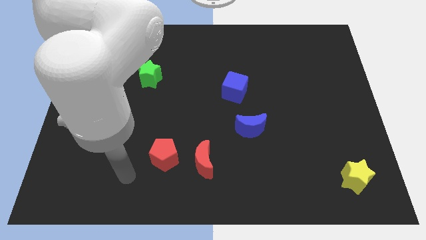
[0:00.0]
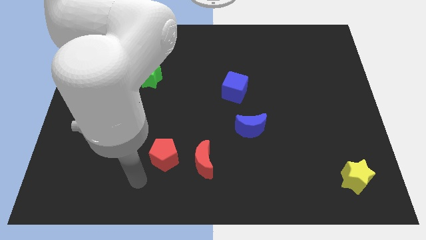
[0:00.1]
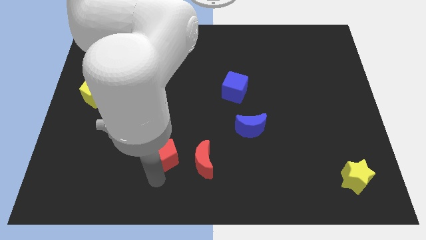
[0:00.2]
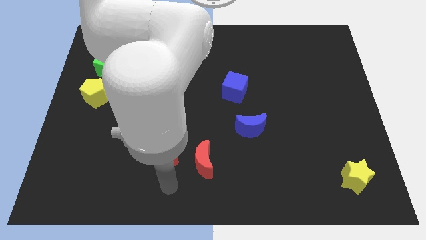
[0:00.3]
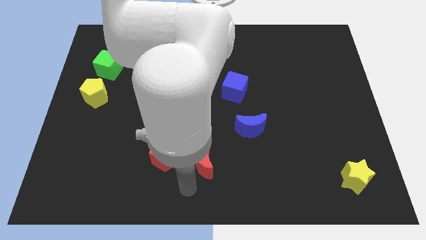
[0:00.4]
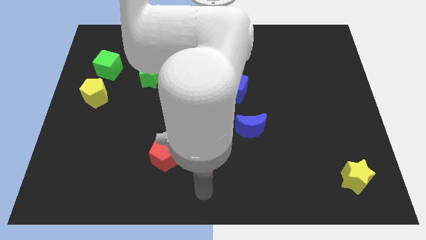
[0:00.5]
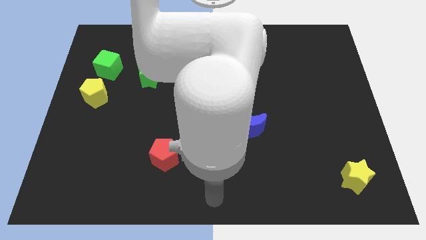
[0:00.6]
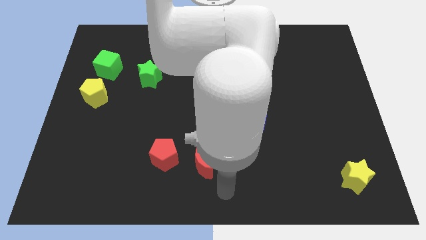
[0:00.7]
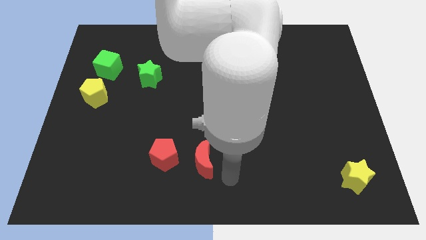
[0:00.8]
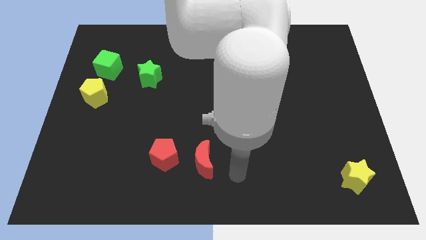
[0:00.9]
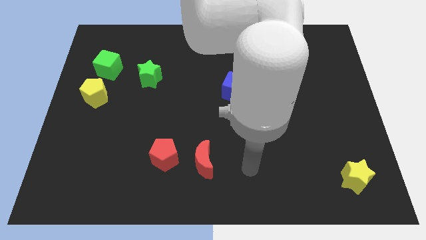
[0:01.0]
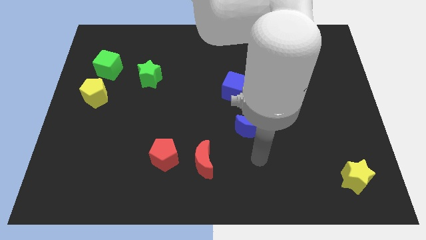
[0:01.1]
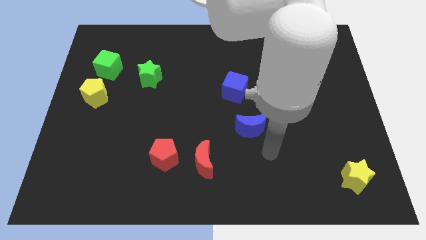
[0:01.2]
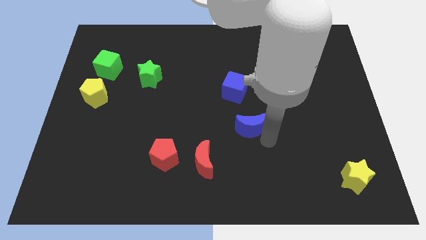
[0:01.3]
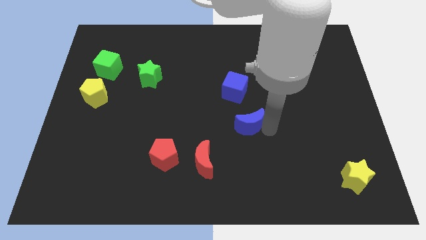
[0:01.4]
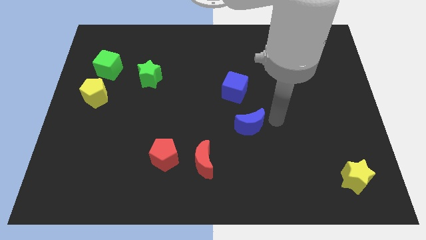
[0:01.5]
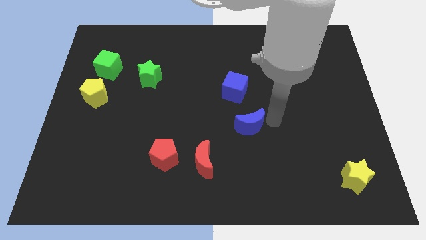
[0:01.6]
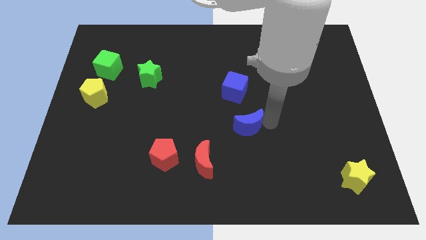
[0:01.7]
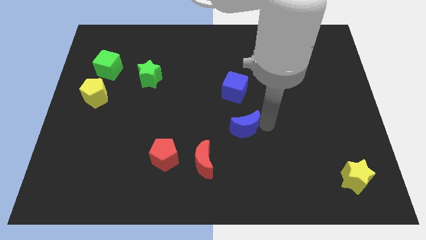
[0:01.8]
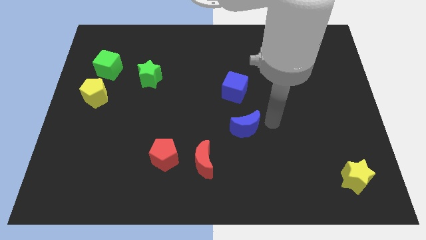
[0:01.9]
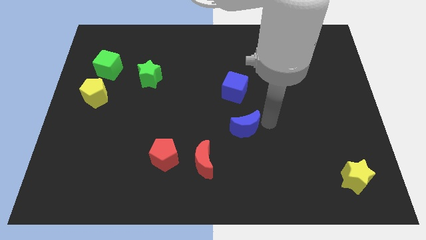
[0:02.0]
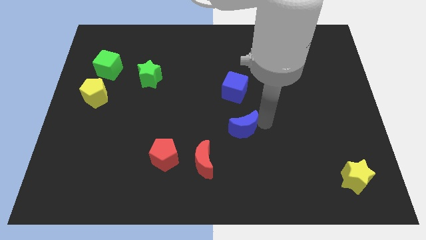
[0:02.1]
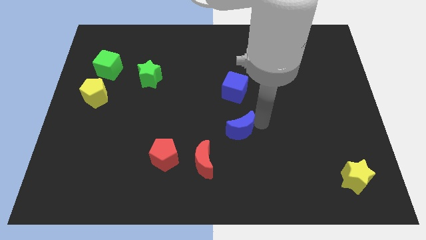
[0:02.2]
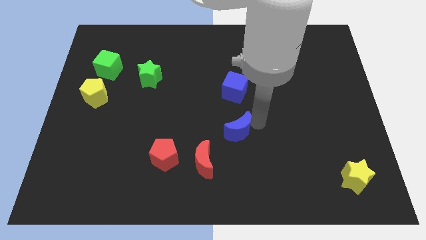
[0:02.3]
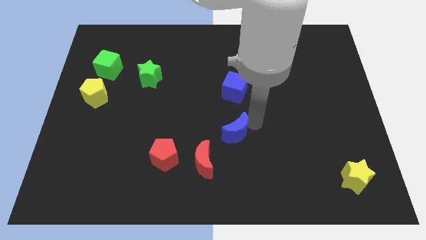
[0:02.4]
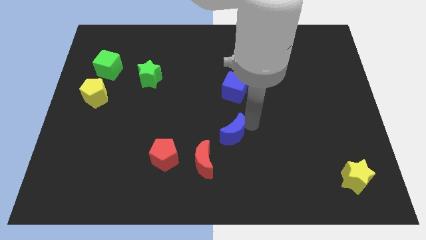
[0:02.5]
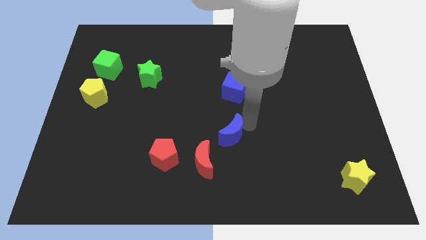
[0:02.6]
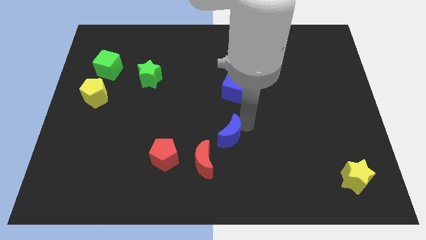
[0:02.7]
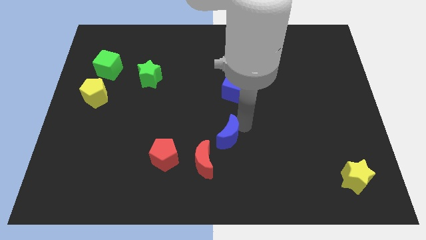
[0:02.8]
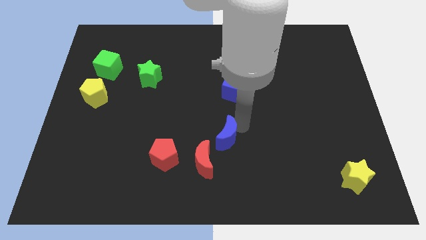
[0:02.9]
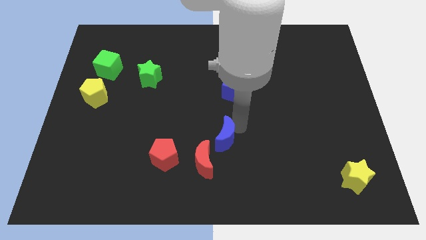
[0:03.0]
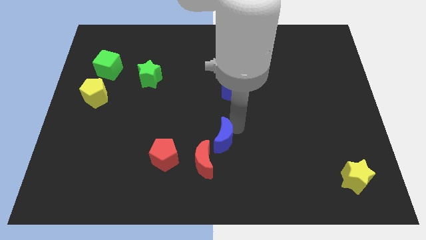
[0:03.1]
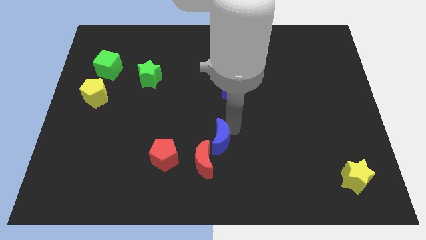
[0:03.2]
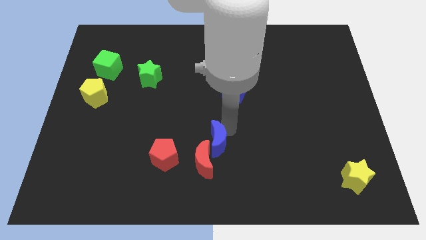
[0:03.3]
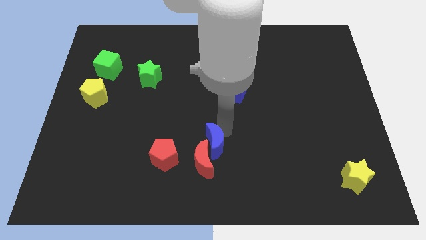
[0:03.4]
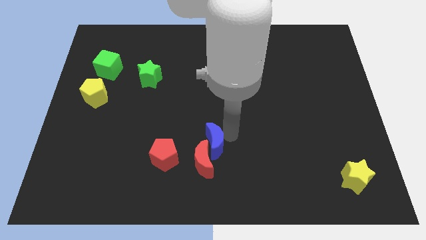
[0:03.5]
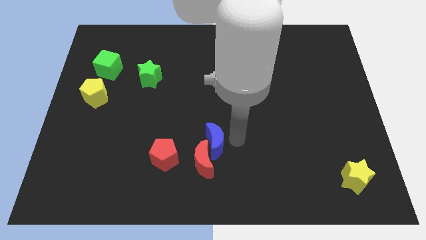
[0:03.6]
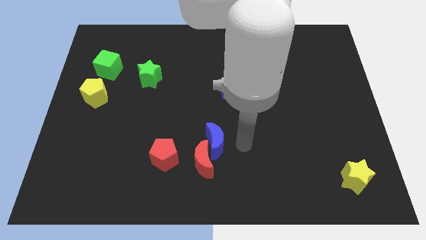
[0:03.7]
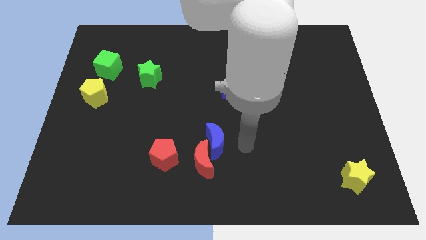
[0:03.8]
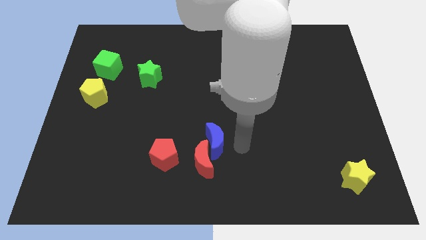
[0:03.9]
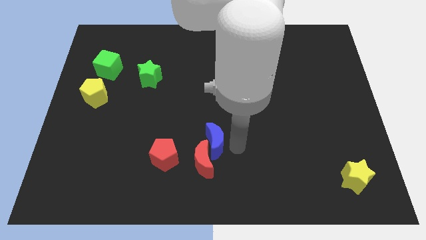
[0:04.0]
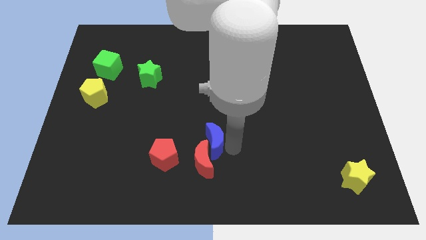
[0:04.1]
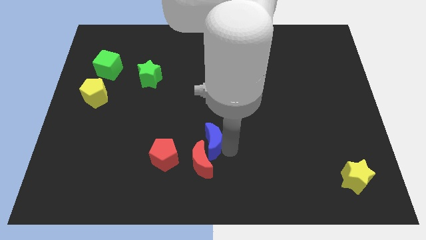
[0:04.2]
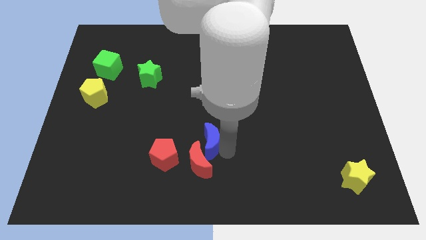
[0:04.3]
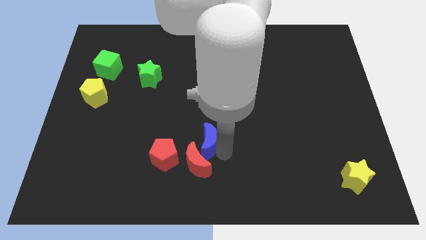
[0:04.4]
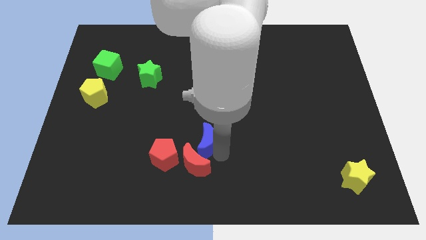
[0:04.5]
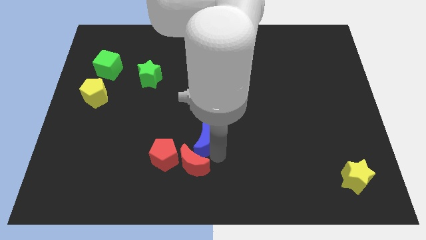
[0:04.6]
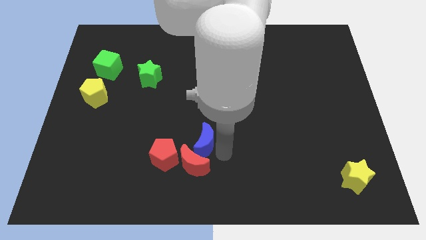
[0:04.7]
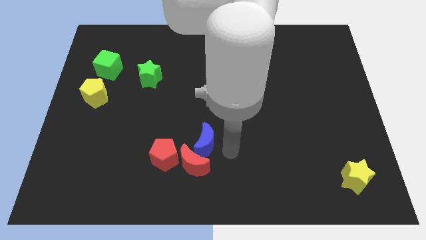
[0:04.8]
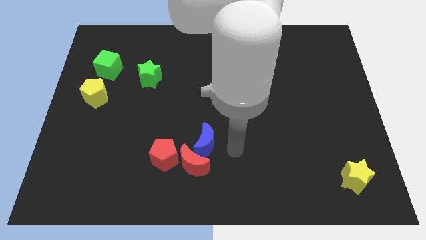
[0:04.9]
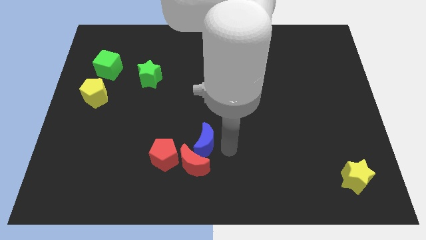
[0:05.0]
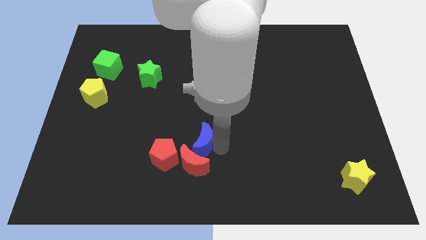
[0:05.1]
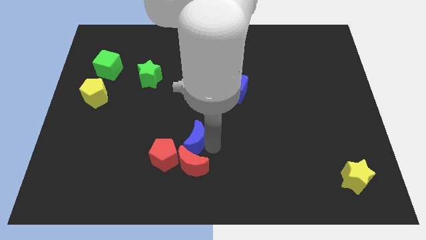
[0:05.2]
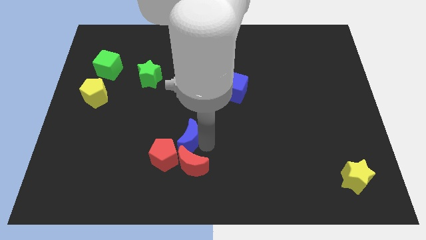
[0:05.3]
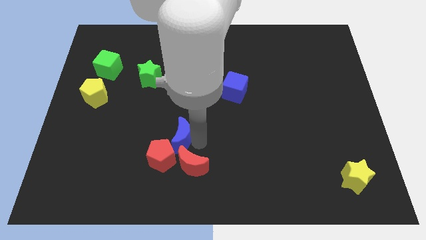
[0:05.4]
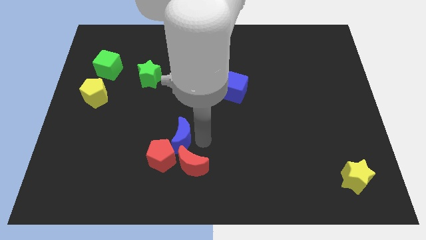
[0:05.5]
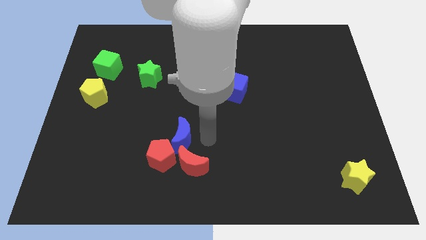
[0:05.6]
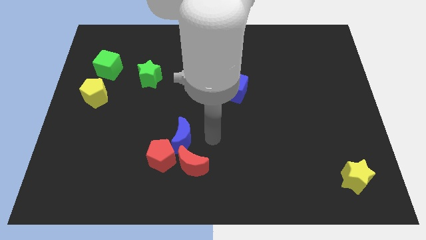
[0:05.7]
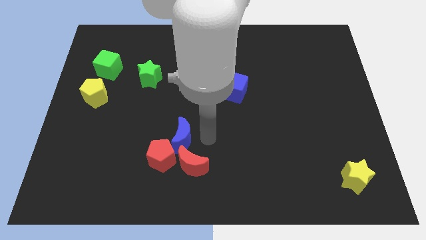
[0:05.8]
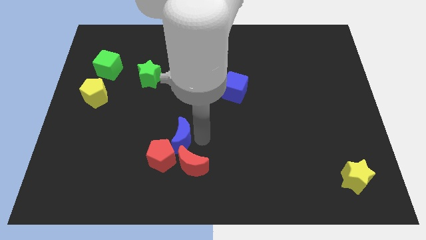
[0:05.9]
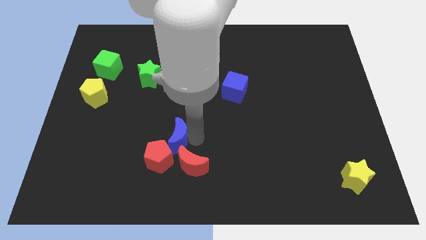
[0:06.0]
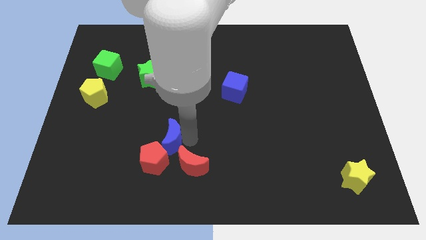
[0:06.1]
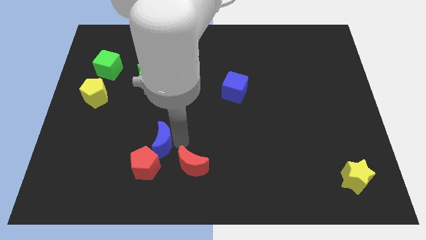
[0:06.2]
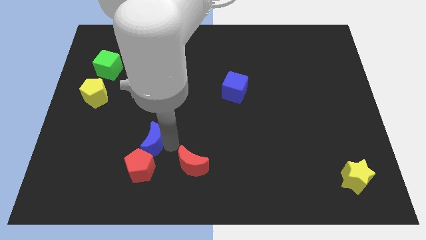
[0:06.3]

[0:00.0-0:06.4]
move the blue moon left

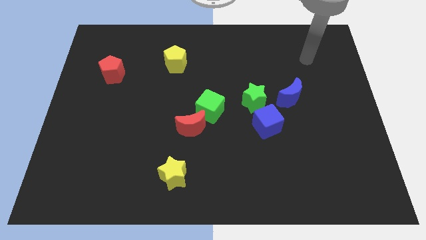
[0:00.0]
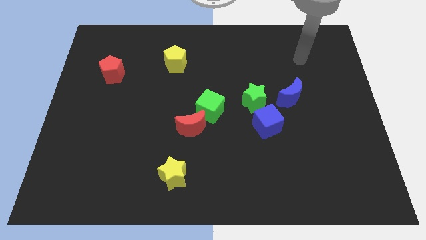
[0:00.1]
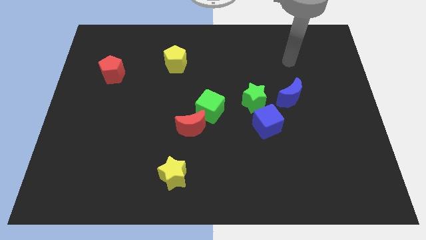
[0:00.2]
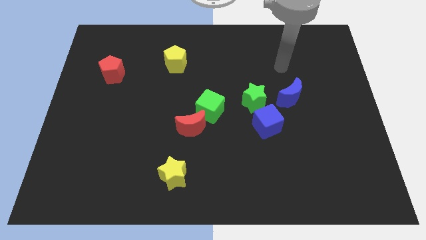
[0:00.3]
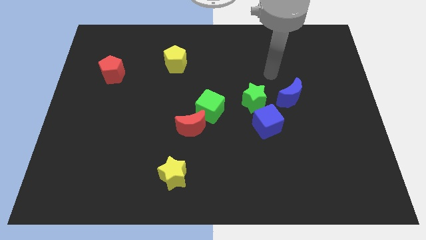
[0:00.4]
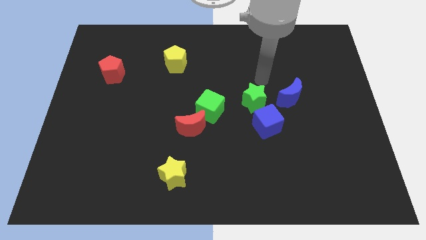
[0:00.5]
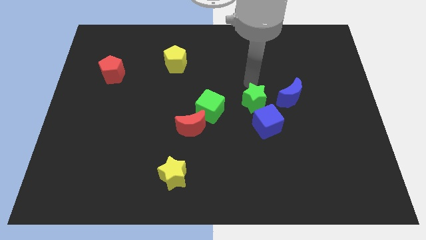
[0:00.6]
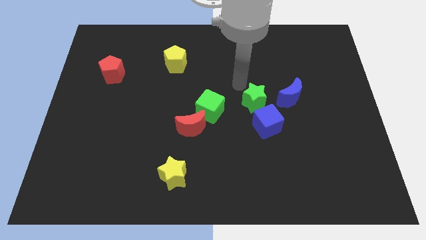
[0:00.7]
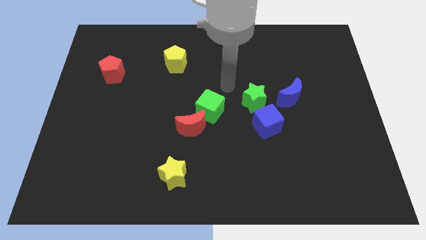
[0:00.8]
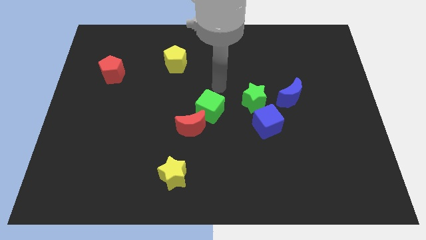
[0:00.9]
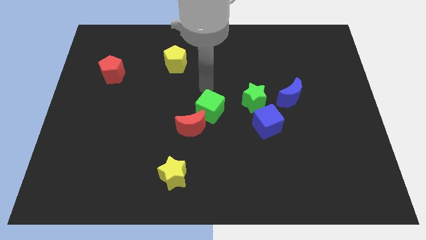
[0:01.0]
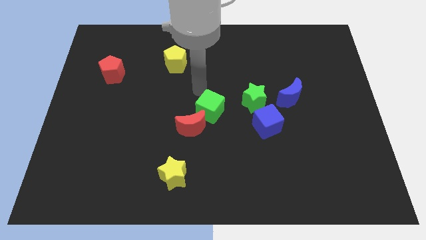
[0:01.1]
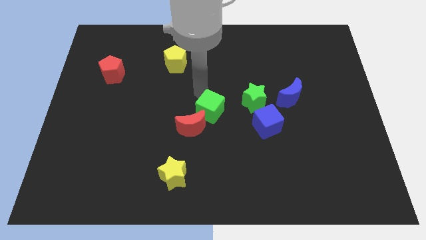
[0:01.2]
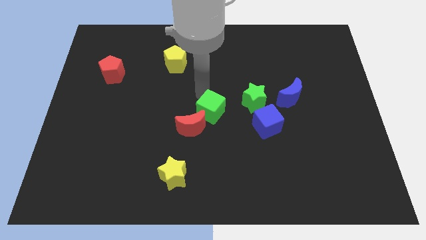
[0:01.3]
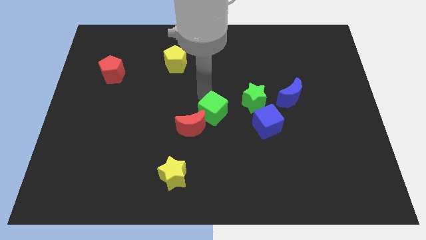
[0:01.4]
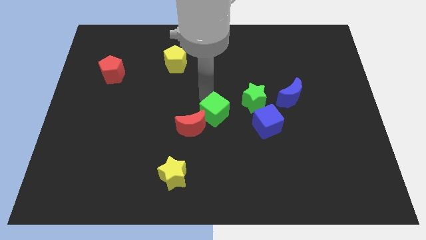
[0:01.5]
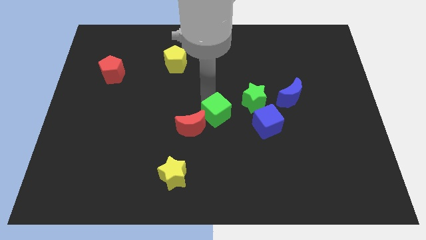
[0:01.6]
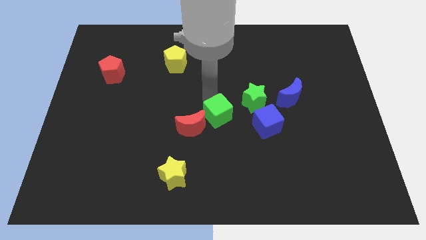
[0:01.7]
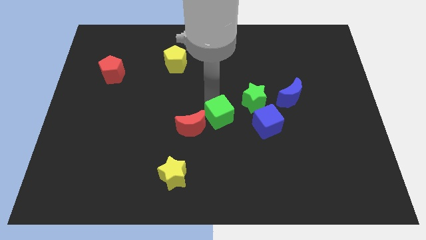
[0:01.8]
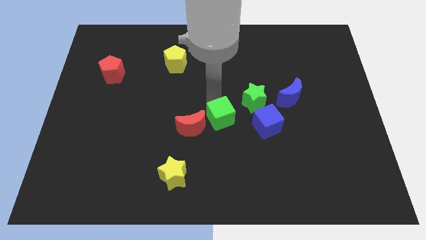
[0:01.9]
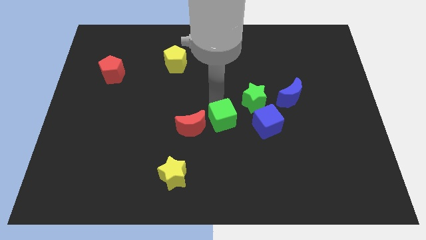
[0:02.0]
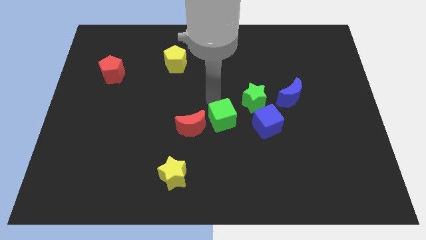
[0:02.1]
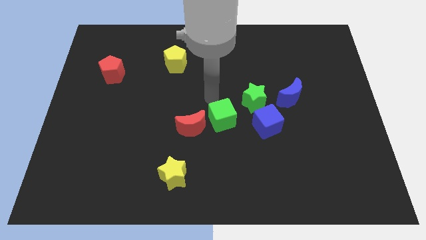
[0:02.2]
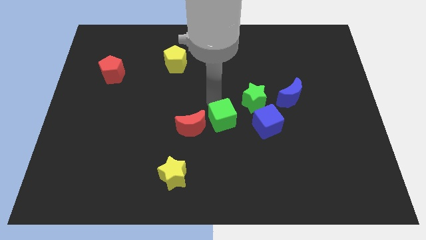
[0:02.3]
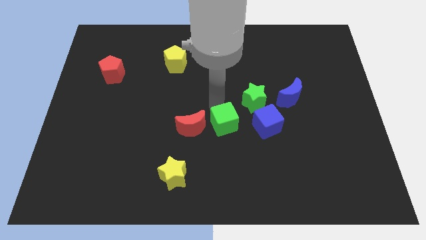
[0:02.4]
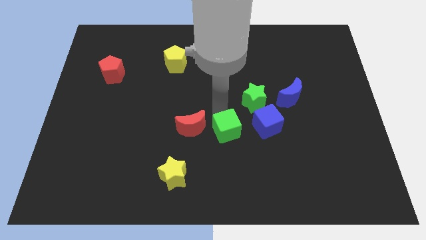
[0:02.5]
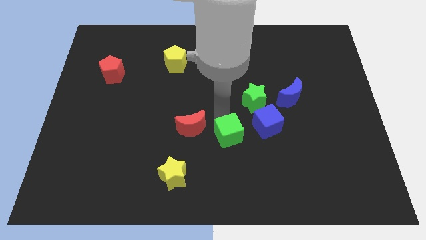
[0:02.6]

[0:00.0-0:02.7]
slightly slide the green cube down and then to the right
